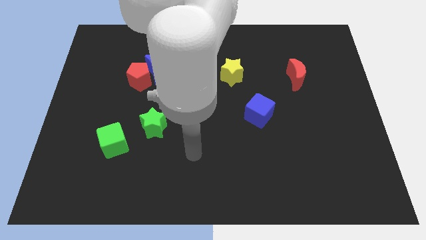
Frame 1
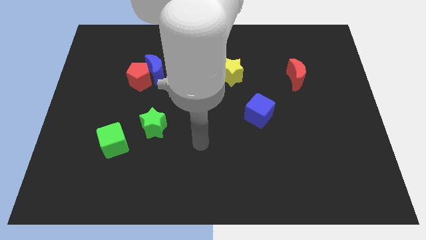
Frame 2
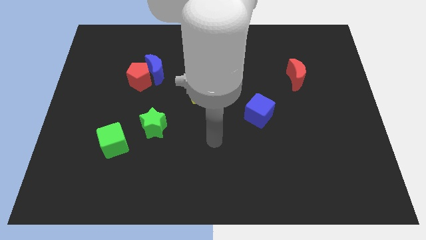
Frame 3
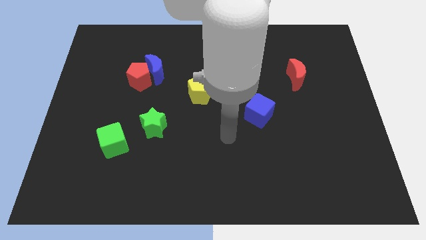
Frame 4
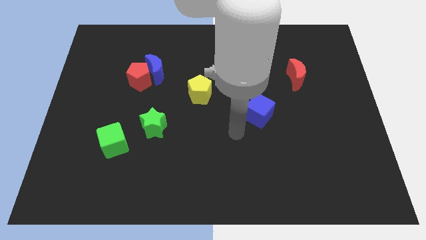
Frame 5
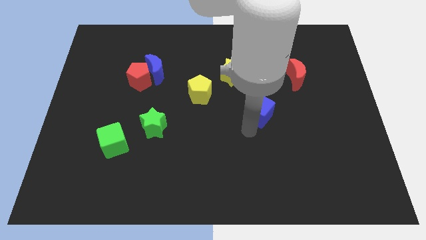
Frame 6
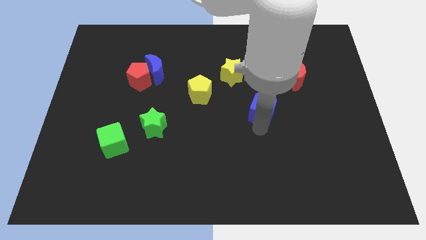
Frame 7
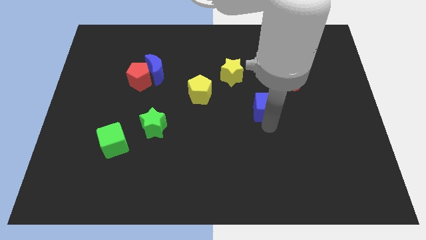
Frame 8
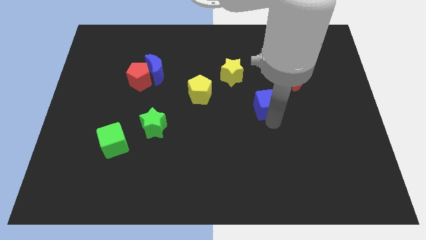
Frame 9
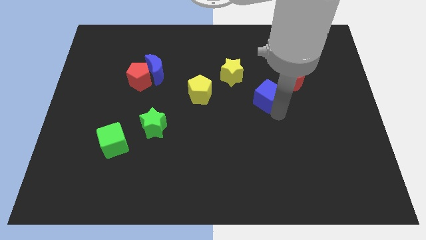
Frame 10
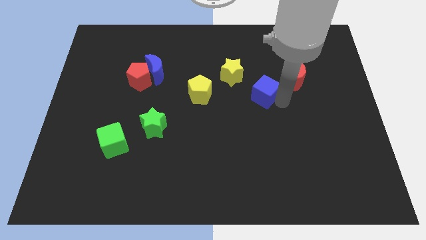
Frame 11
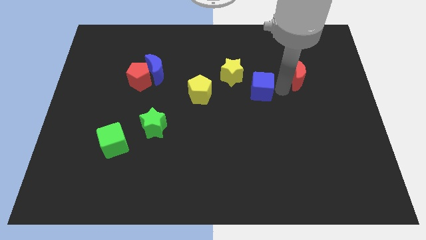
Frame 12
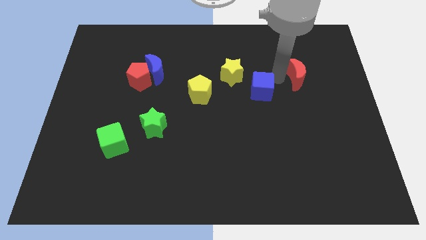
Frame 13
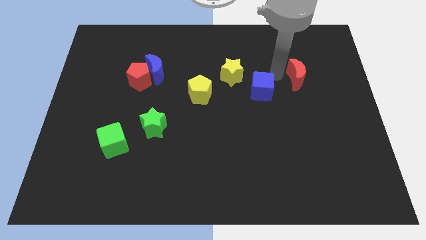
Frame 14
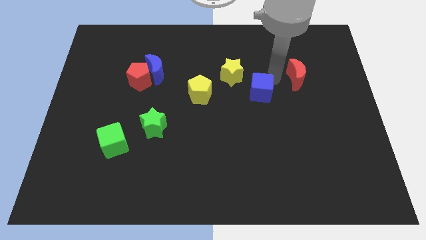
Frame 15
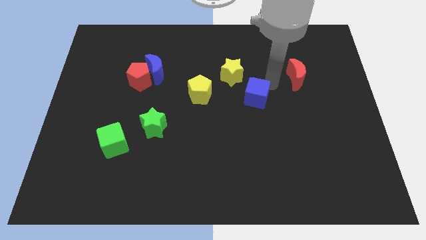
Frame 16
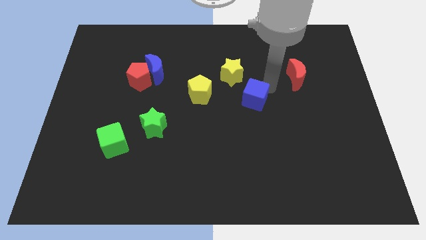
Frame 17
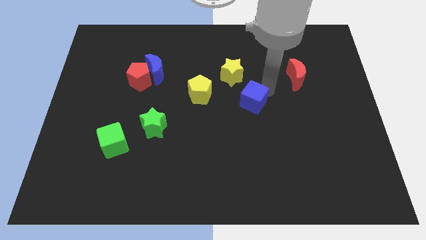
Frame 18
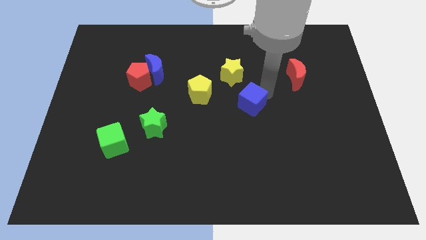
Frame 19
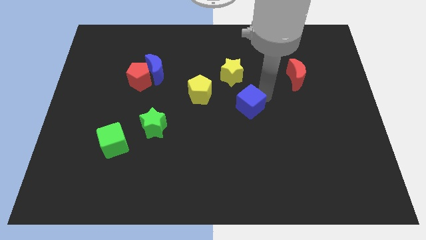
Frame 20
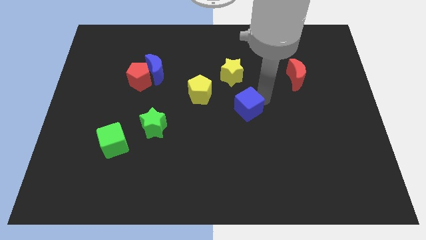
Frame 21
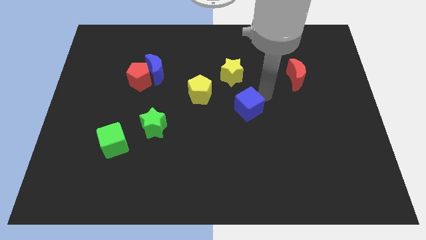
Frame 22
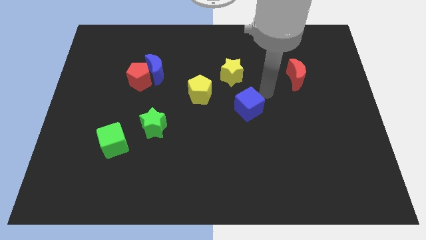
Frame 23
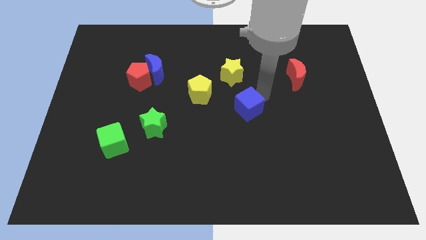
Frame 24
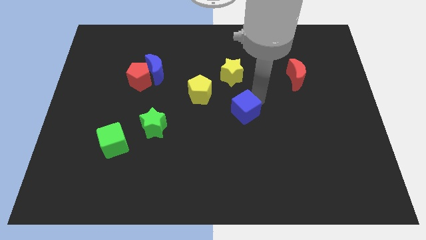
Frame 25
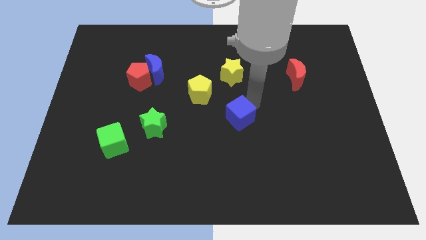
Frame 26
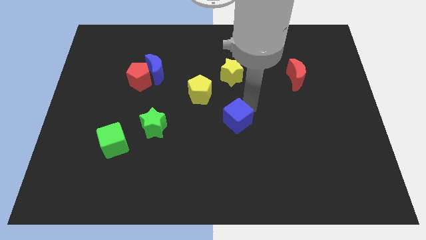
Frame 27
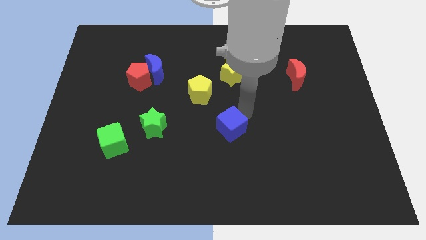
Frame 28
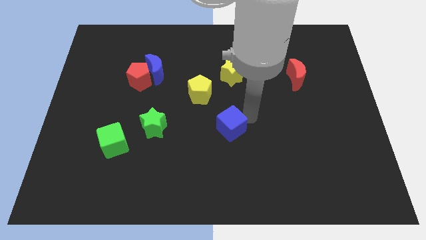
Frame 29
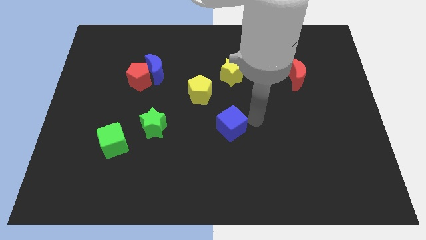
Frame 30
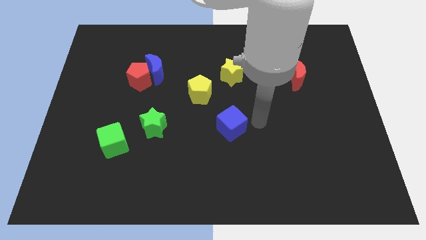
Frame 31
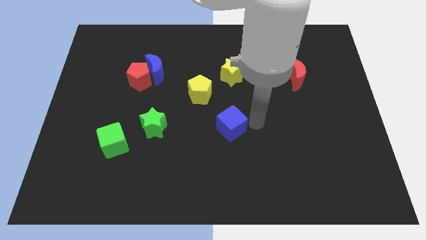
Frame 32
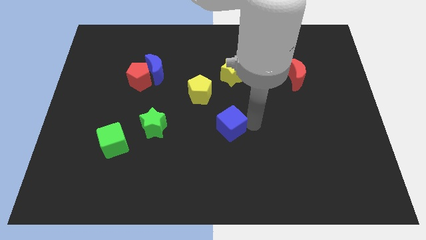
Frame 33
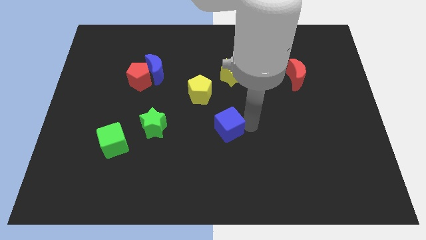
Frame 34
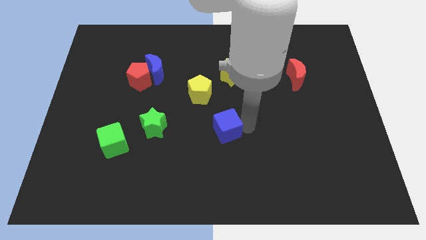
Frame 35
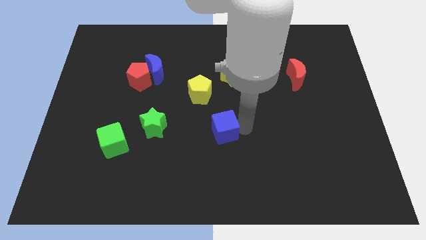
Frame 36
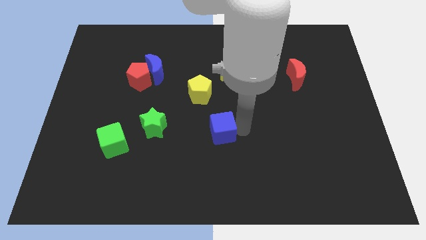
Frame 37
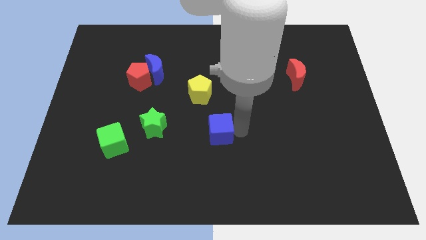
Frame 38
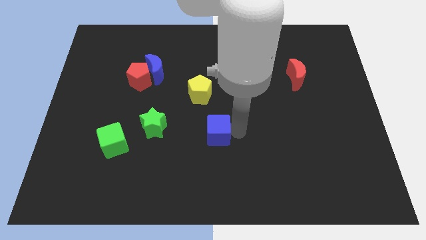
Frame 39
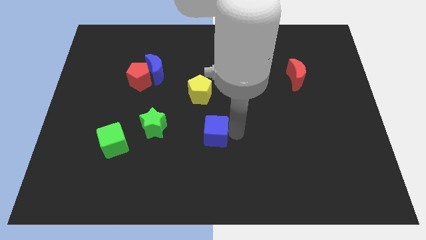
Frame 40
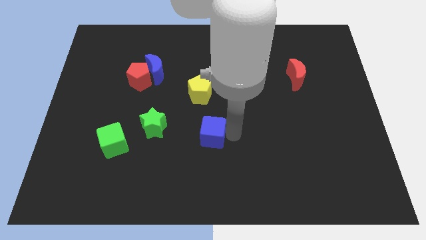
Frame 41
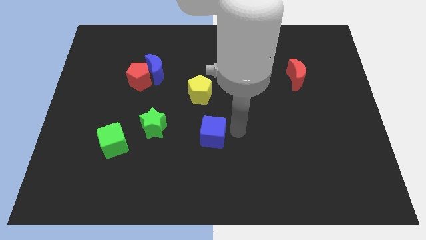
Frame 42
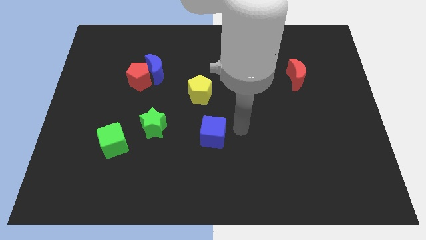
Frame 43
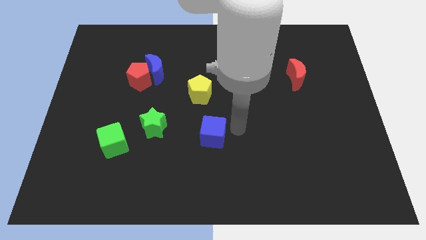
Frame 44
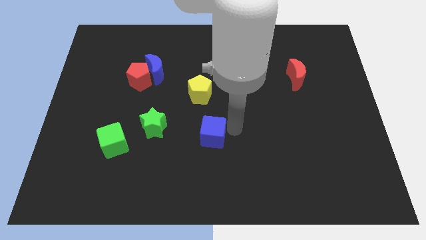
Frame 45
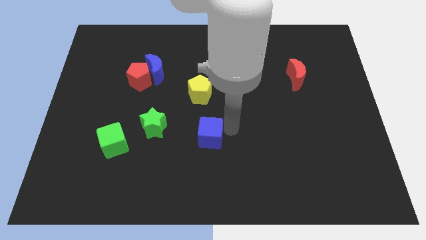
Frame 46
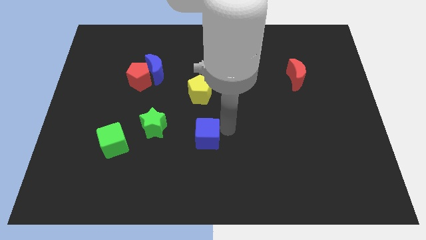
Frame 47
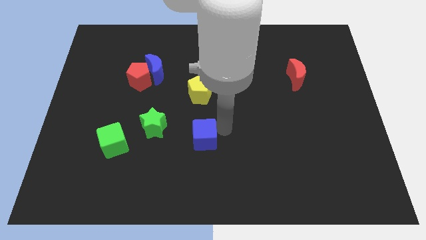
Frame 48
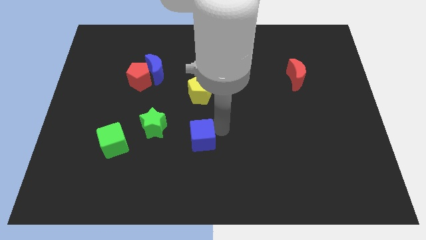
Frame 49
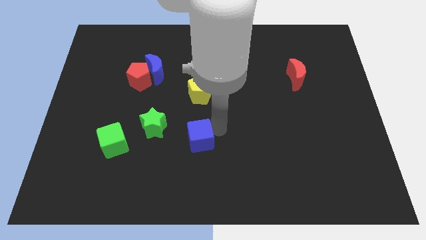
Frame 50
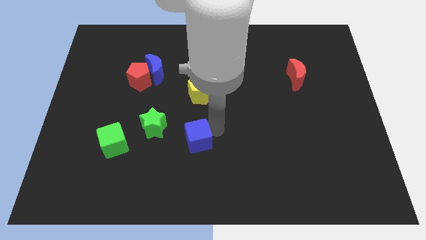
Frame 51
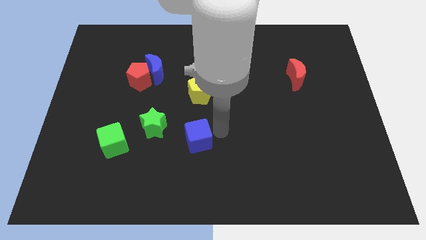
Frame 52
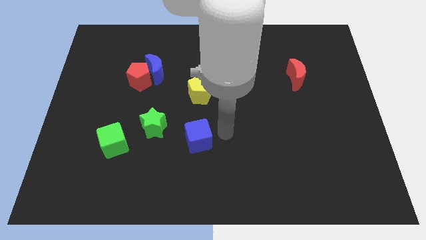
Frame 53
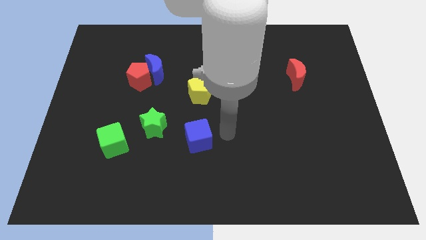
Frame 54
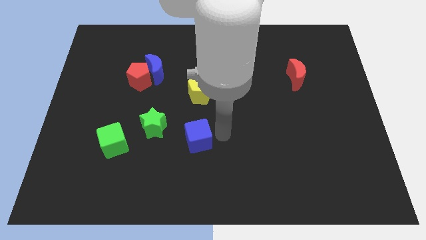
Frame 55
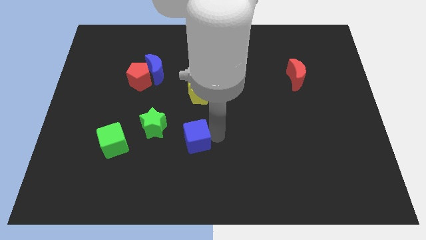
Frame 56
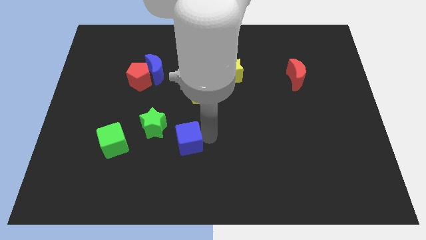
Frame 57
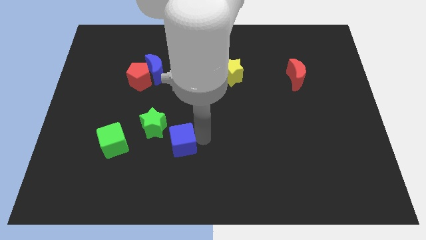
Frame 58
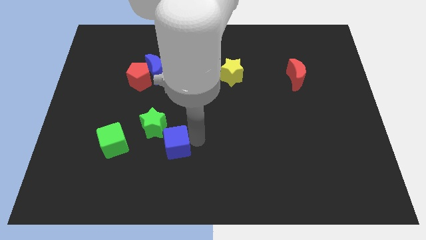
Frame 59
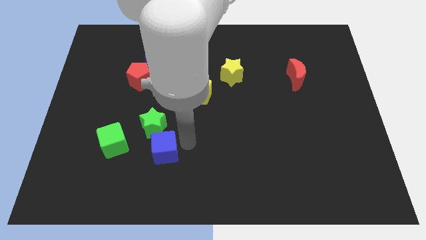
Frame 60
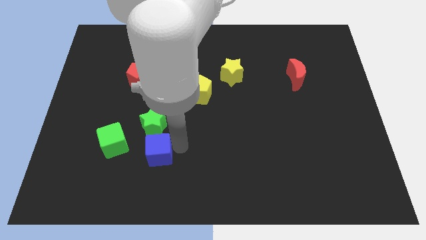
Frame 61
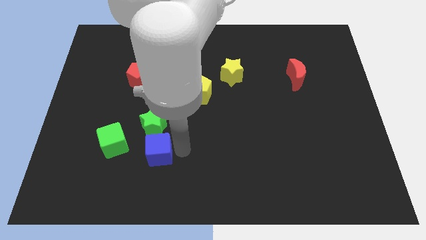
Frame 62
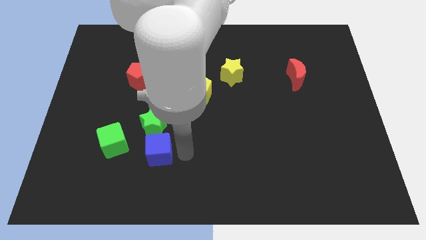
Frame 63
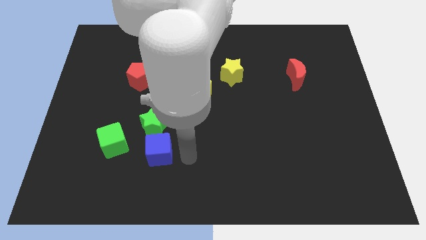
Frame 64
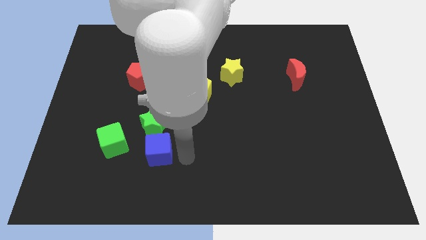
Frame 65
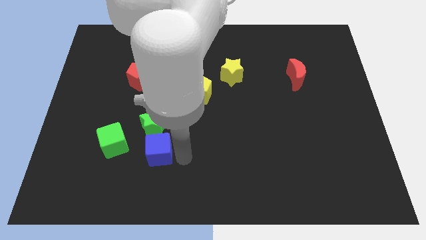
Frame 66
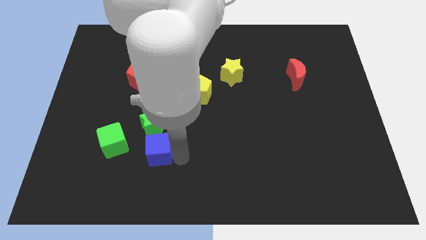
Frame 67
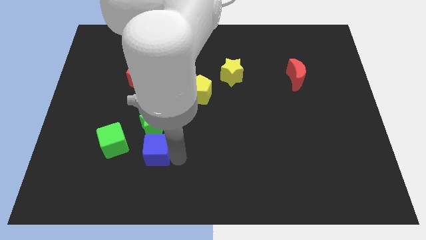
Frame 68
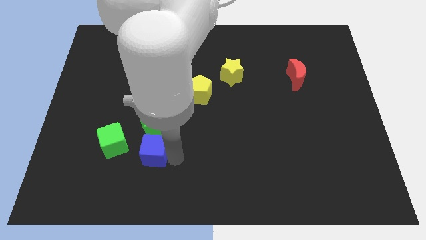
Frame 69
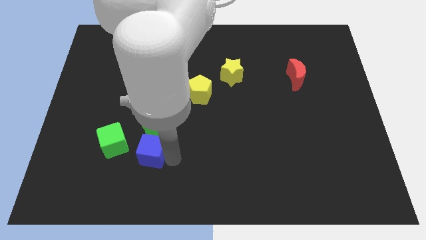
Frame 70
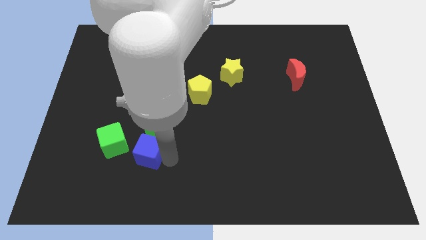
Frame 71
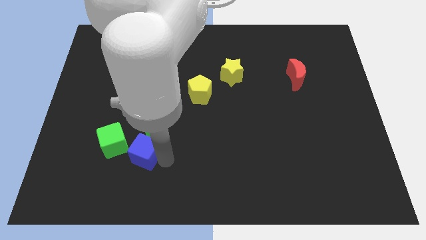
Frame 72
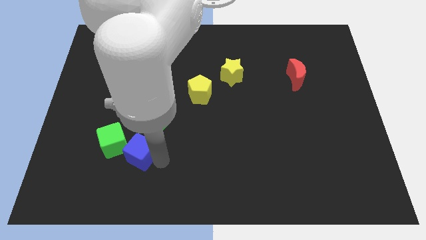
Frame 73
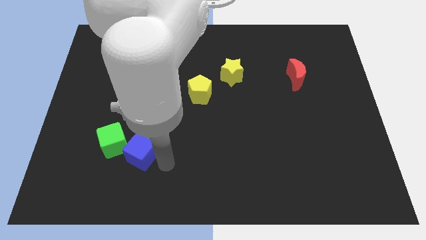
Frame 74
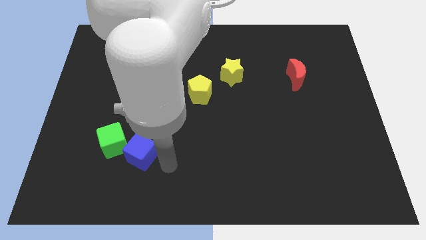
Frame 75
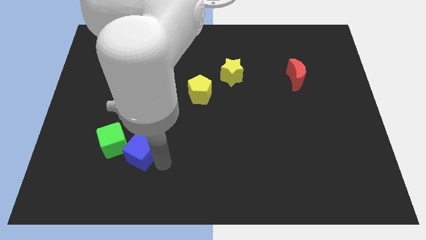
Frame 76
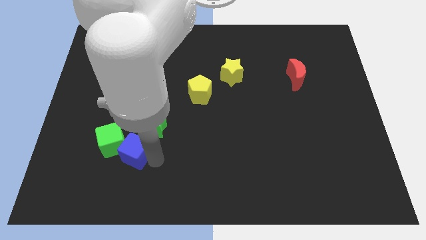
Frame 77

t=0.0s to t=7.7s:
push the blue cube to the green cube
